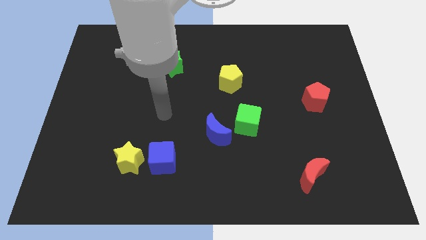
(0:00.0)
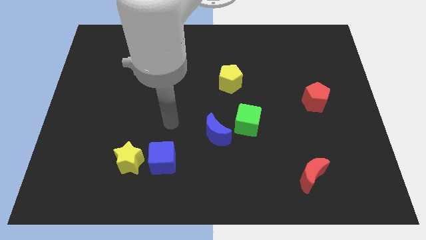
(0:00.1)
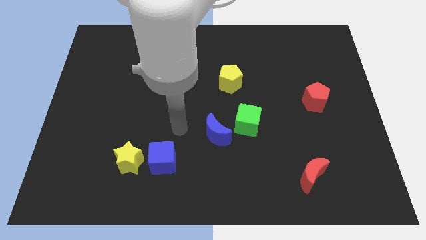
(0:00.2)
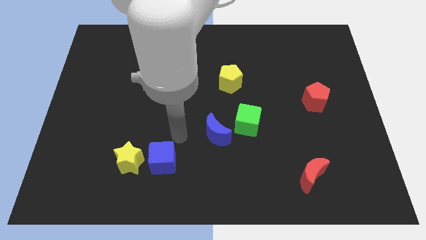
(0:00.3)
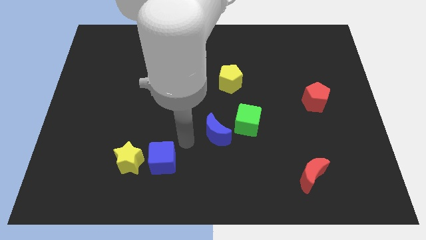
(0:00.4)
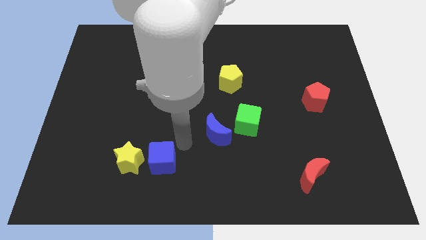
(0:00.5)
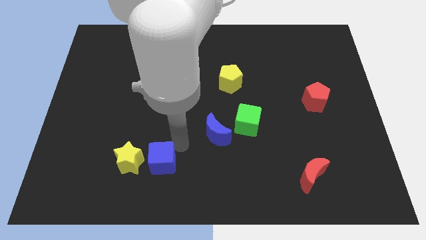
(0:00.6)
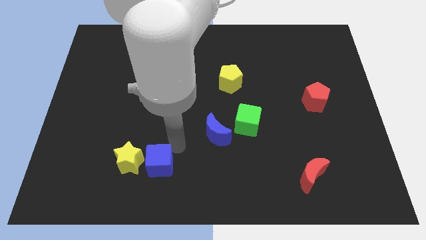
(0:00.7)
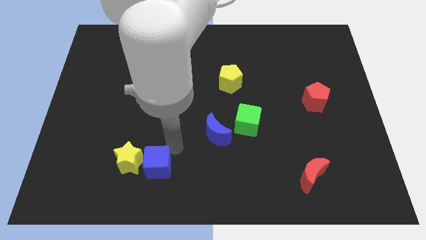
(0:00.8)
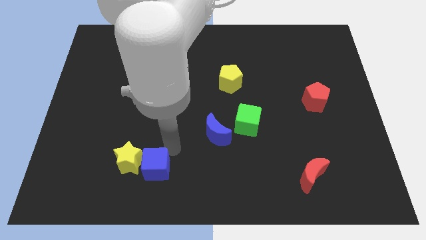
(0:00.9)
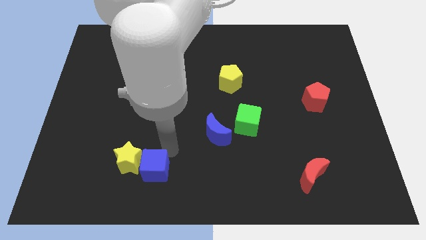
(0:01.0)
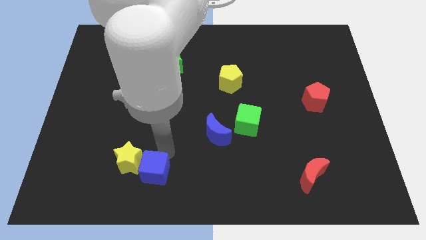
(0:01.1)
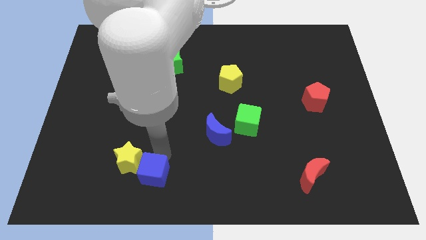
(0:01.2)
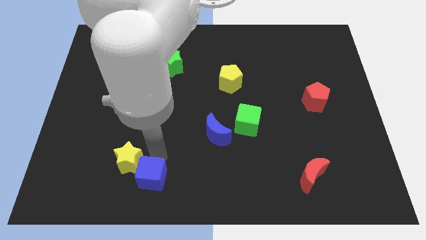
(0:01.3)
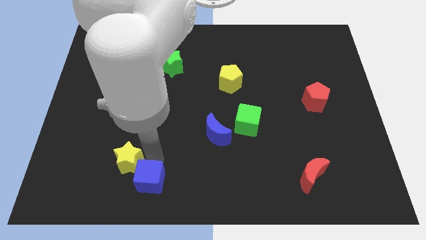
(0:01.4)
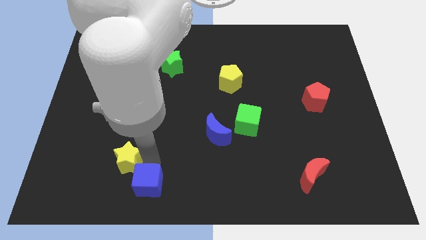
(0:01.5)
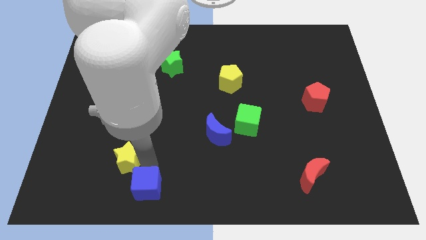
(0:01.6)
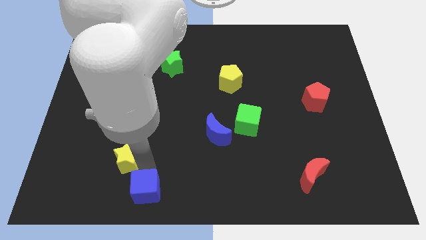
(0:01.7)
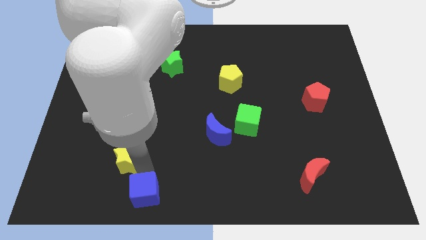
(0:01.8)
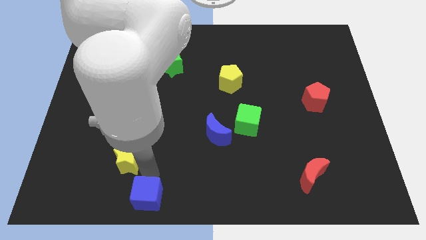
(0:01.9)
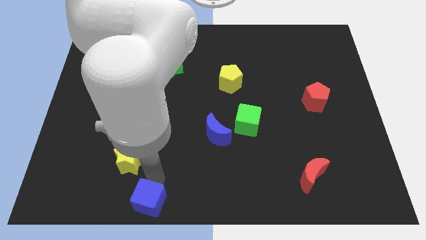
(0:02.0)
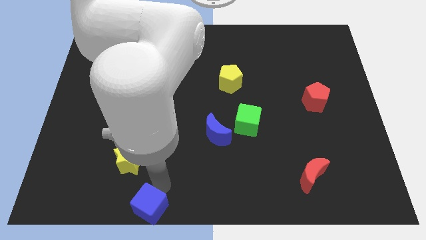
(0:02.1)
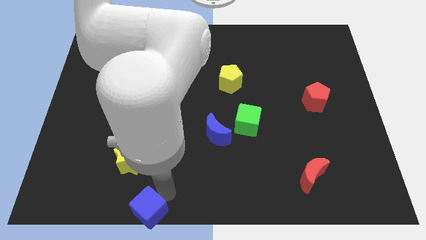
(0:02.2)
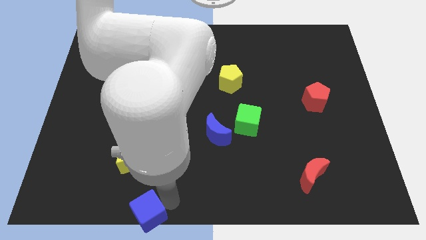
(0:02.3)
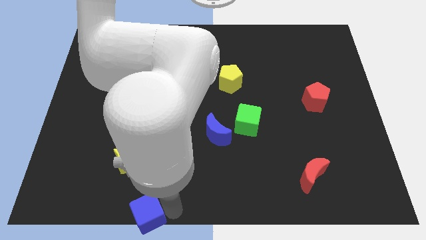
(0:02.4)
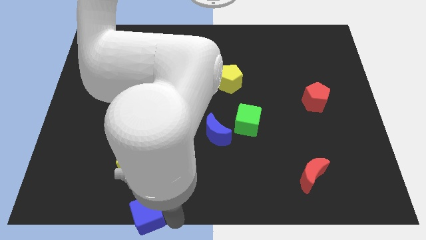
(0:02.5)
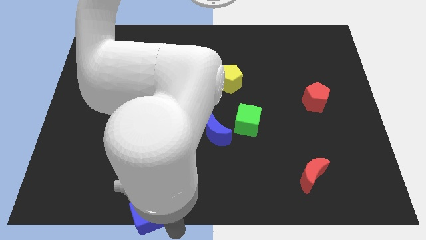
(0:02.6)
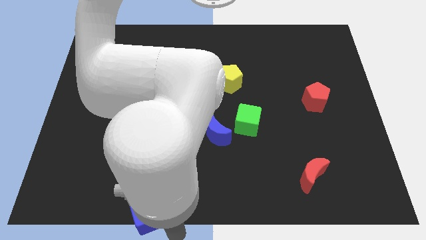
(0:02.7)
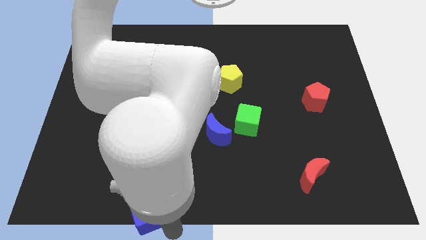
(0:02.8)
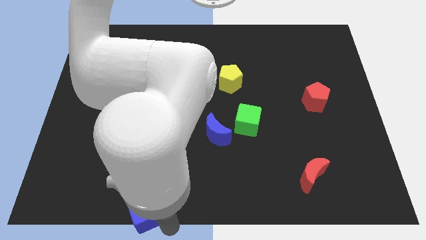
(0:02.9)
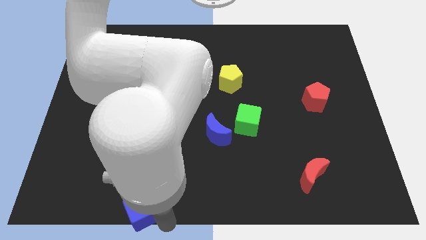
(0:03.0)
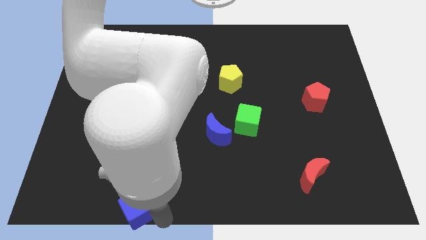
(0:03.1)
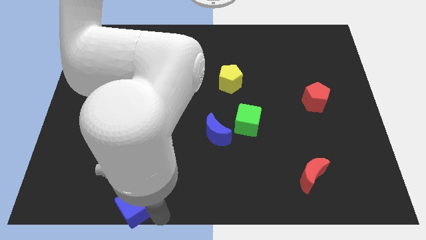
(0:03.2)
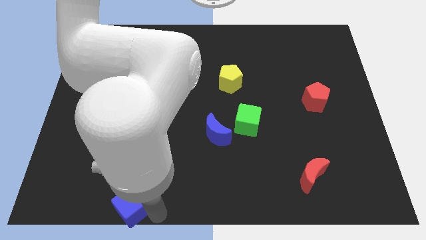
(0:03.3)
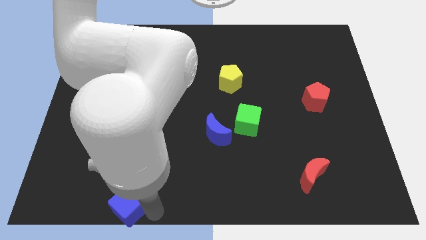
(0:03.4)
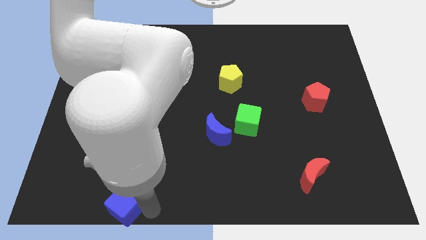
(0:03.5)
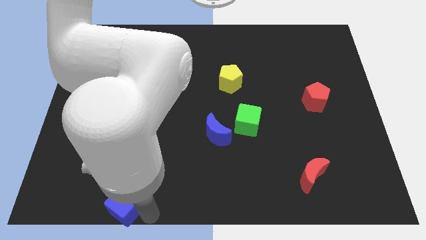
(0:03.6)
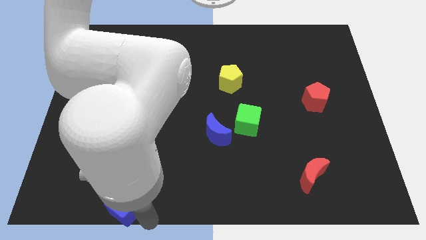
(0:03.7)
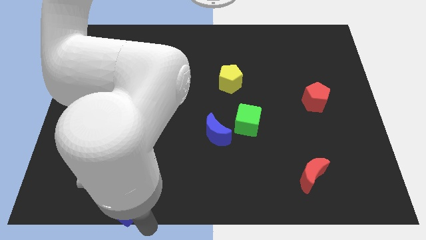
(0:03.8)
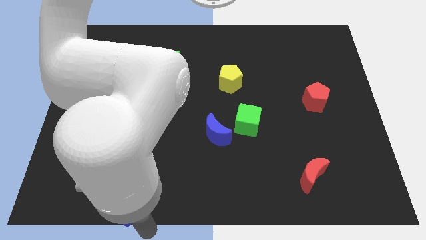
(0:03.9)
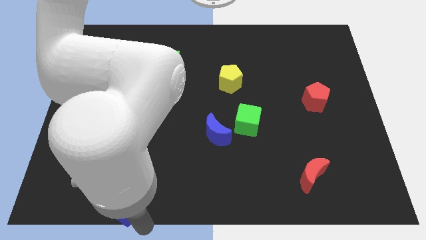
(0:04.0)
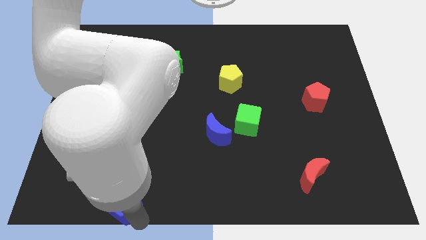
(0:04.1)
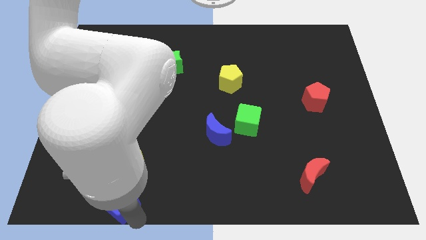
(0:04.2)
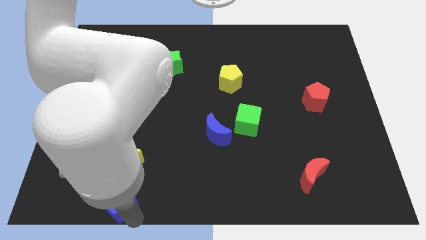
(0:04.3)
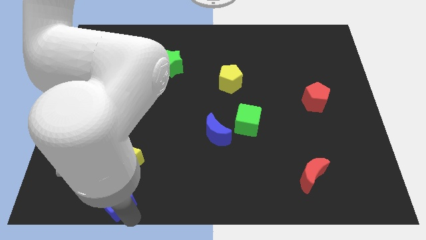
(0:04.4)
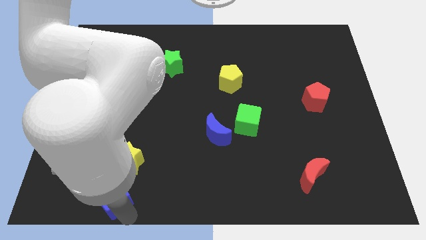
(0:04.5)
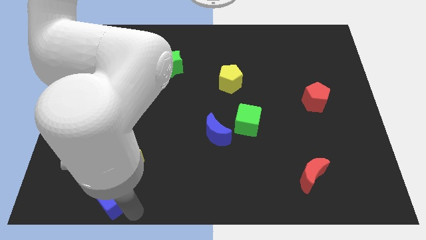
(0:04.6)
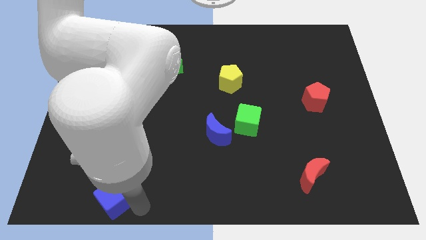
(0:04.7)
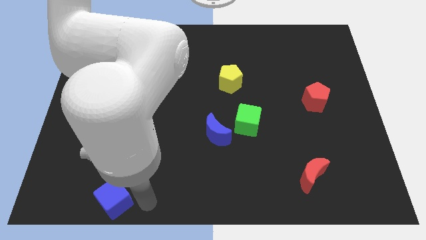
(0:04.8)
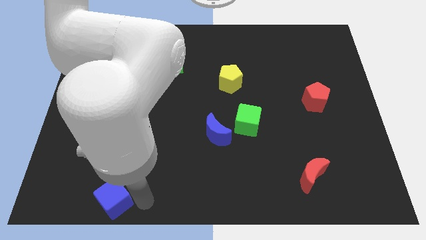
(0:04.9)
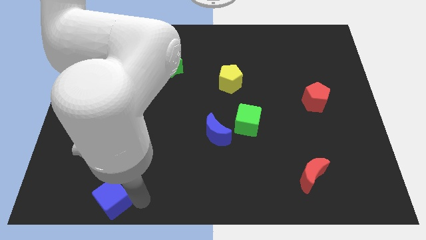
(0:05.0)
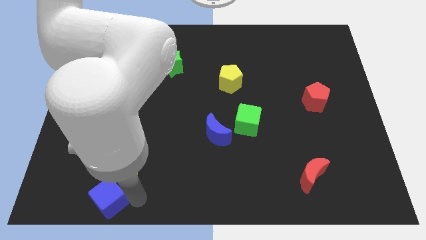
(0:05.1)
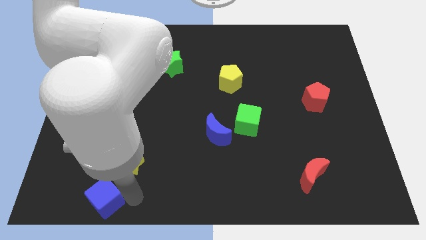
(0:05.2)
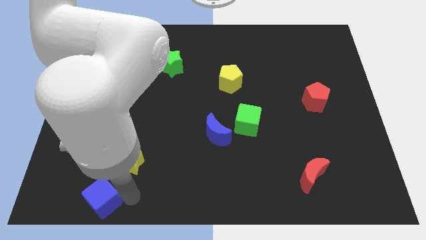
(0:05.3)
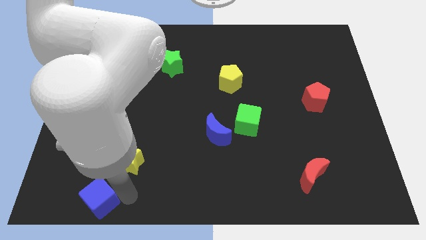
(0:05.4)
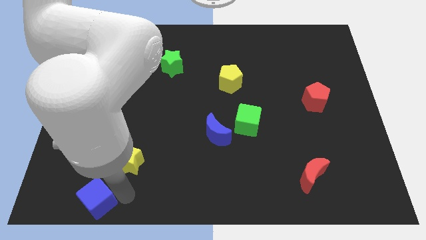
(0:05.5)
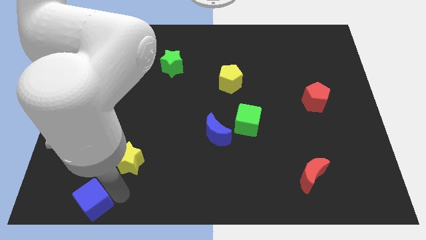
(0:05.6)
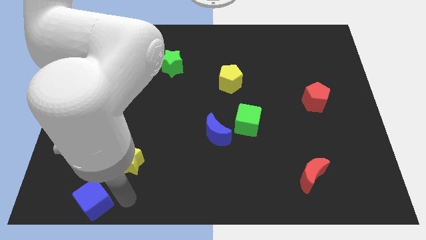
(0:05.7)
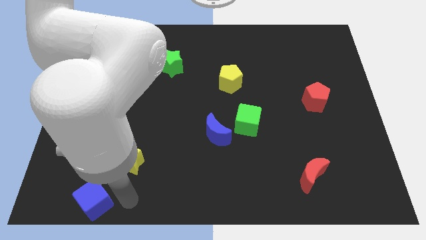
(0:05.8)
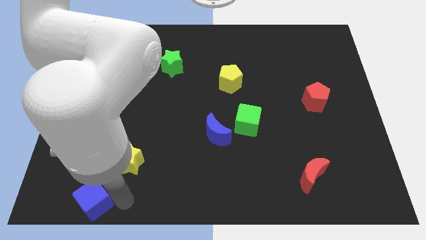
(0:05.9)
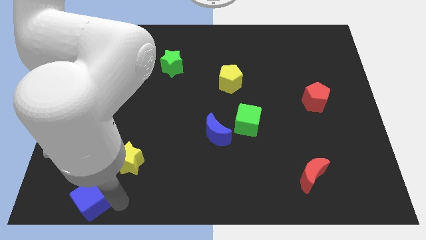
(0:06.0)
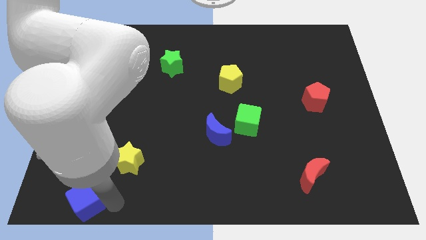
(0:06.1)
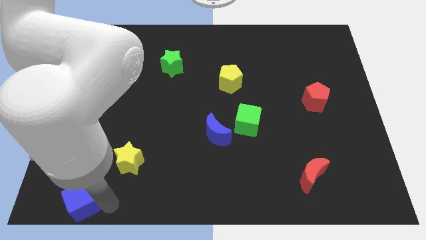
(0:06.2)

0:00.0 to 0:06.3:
move the blue cube to the bottom left corner
